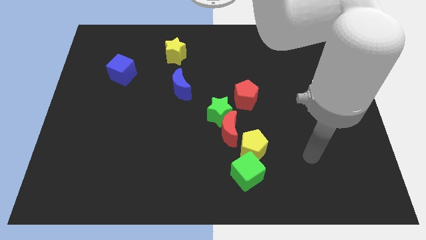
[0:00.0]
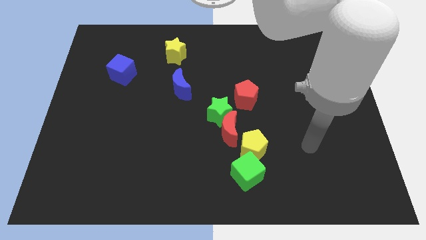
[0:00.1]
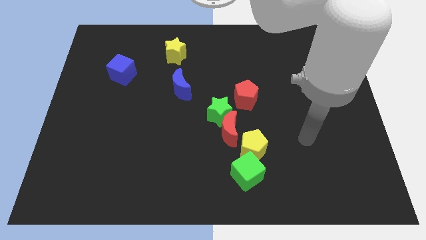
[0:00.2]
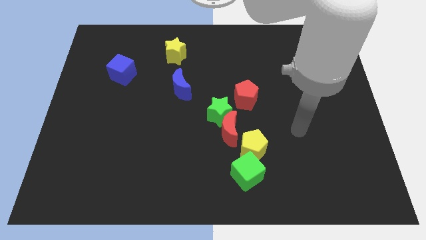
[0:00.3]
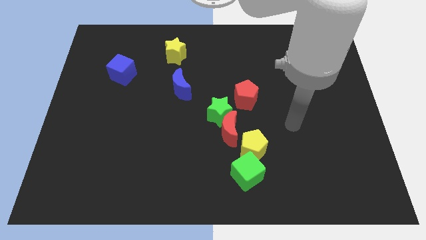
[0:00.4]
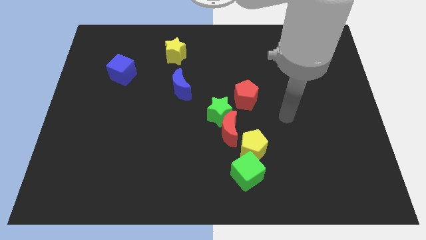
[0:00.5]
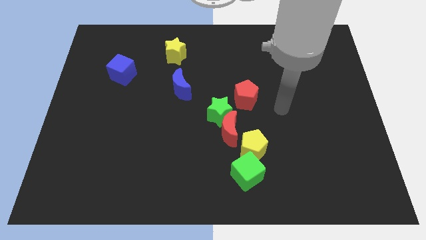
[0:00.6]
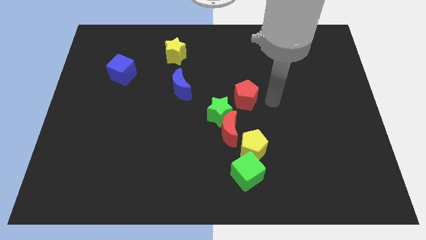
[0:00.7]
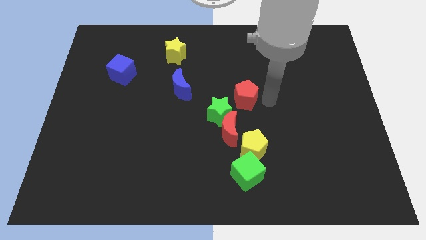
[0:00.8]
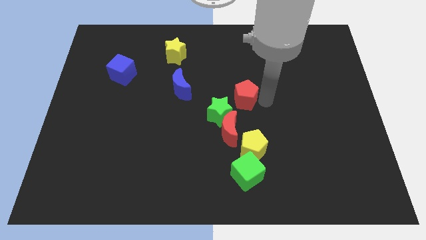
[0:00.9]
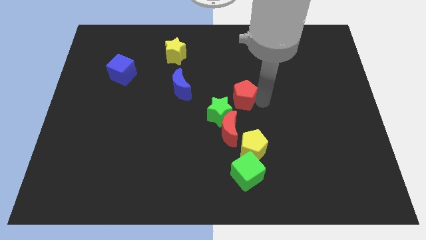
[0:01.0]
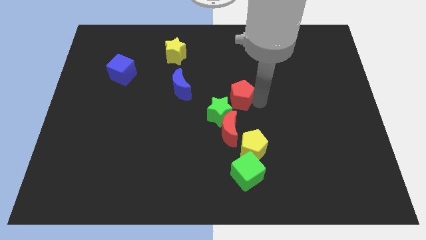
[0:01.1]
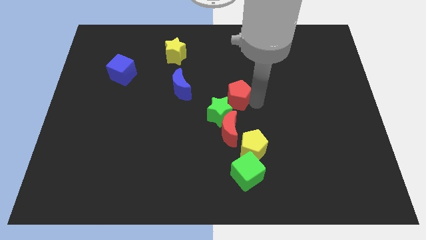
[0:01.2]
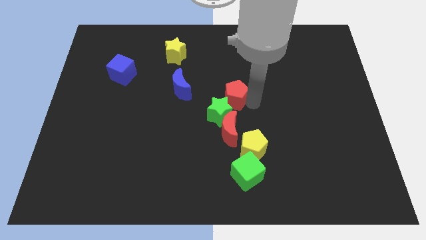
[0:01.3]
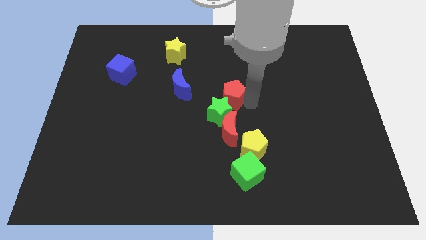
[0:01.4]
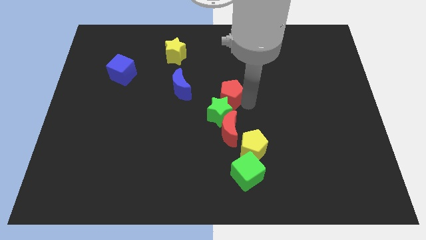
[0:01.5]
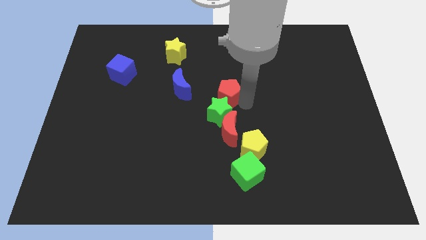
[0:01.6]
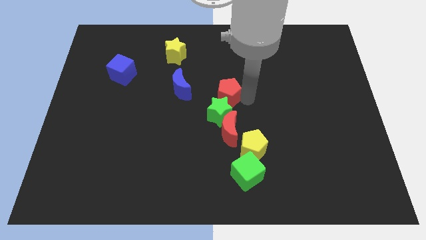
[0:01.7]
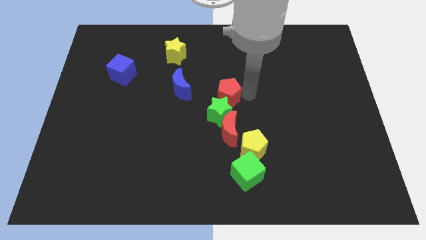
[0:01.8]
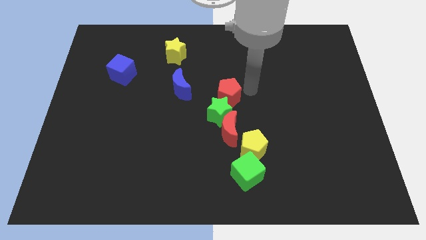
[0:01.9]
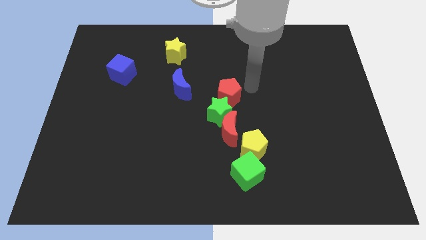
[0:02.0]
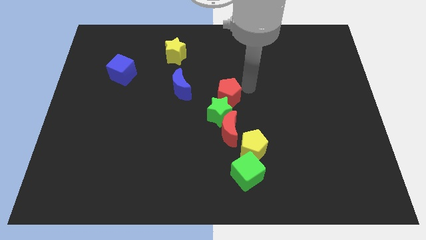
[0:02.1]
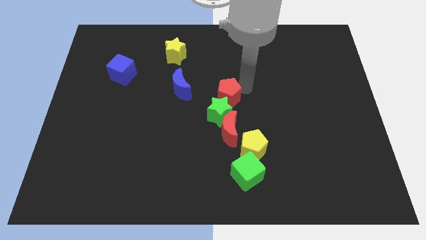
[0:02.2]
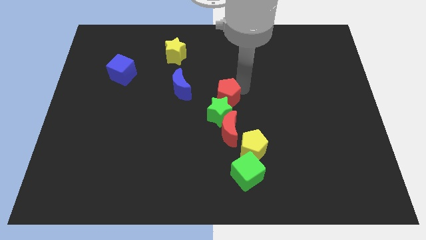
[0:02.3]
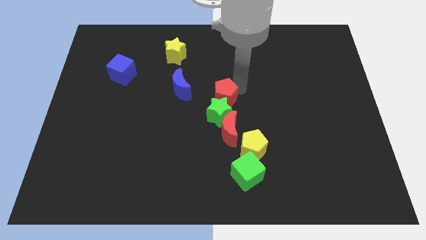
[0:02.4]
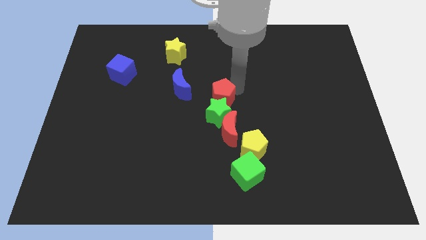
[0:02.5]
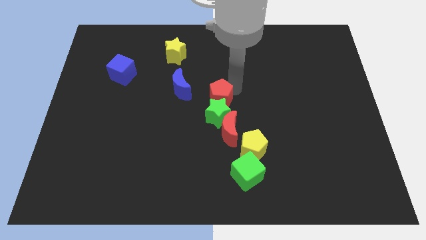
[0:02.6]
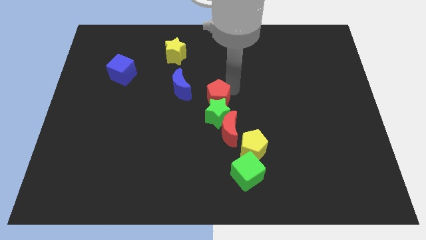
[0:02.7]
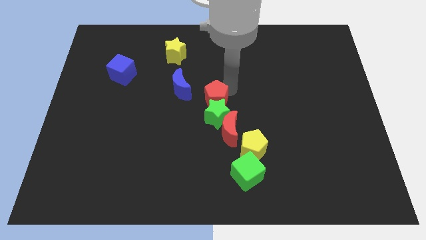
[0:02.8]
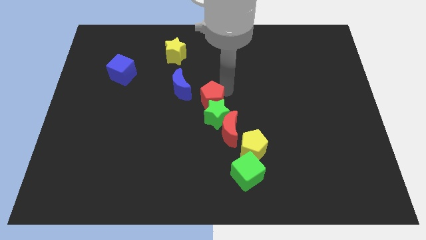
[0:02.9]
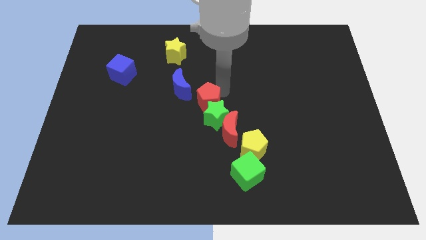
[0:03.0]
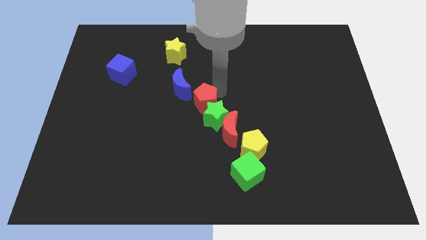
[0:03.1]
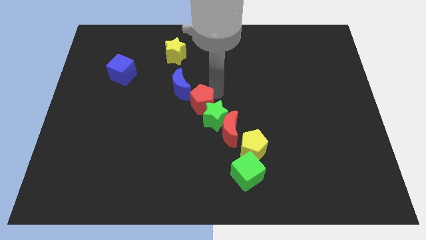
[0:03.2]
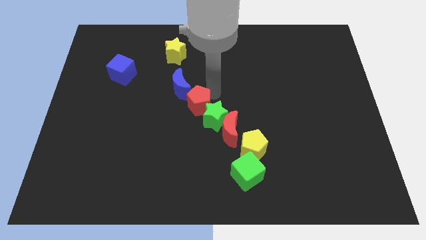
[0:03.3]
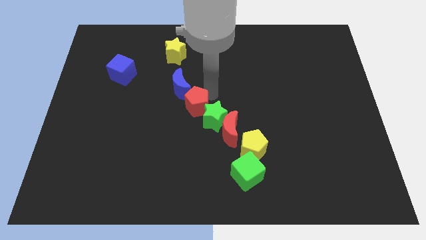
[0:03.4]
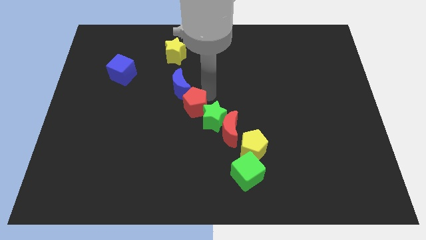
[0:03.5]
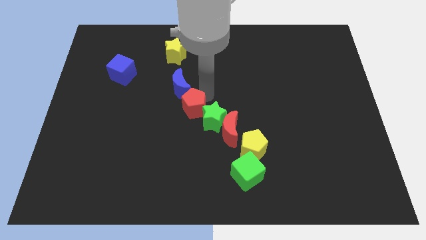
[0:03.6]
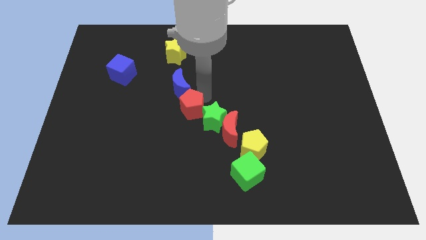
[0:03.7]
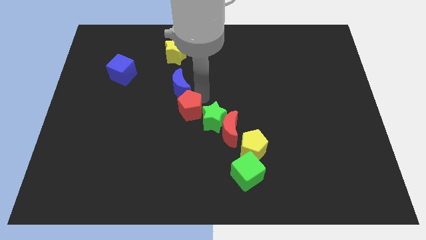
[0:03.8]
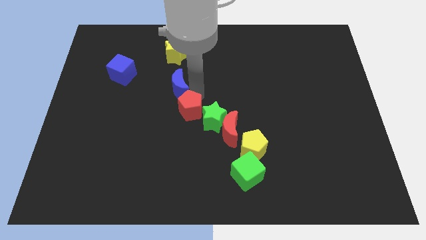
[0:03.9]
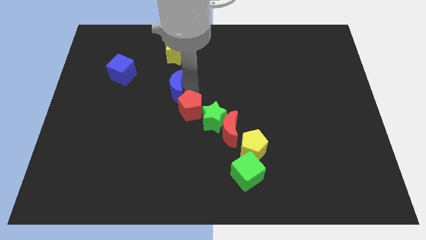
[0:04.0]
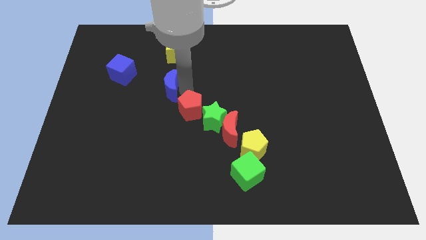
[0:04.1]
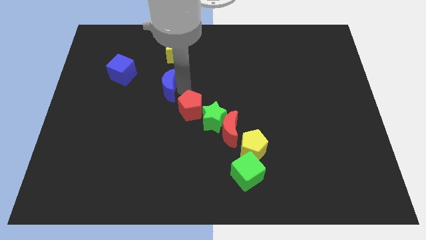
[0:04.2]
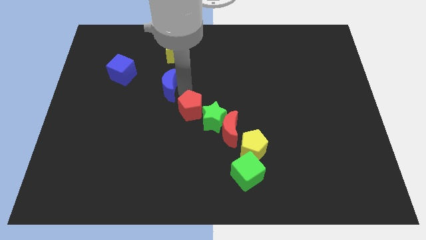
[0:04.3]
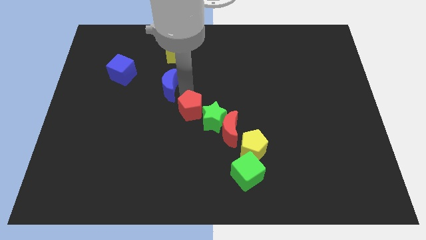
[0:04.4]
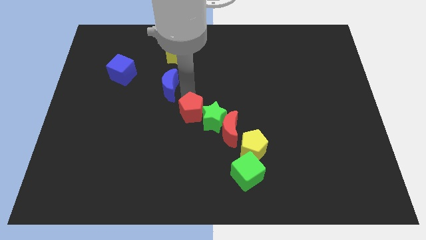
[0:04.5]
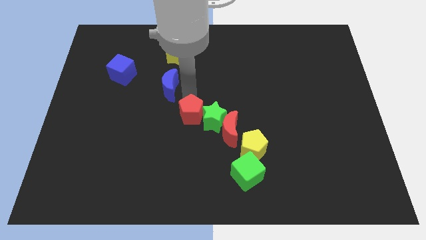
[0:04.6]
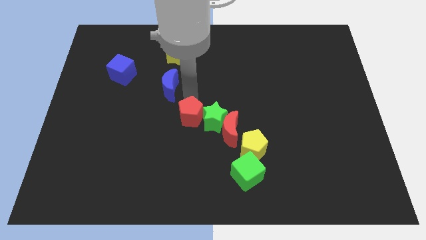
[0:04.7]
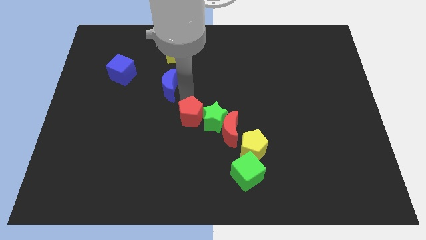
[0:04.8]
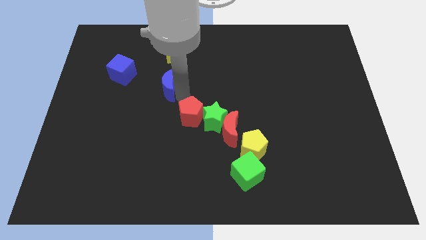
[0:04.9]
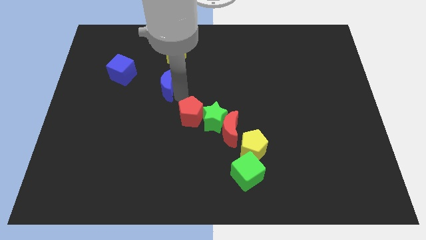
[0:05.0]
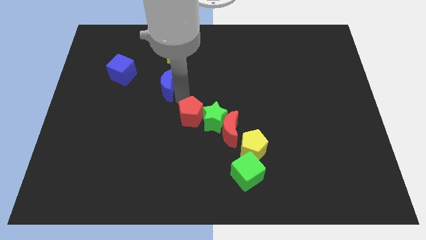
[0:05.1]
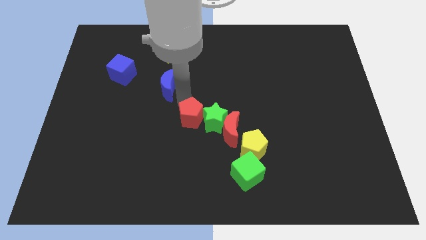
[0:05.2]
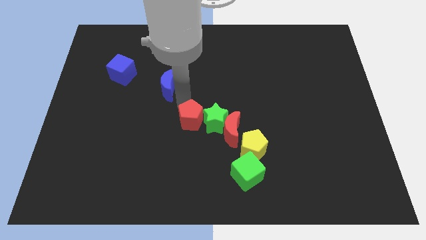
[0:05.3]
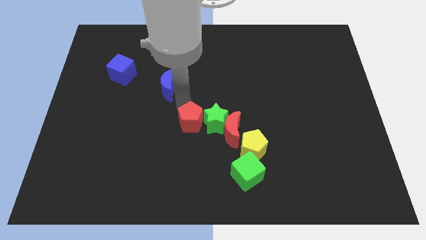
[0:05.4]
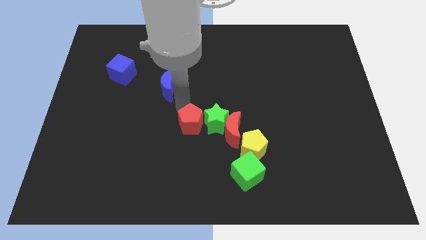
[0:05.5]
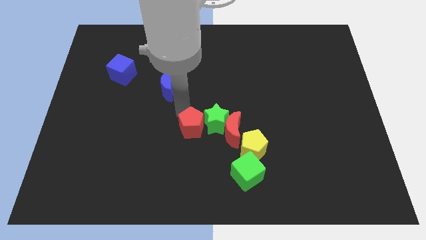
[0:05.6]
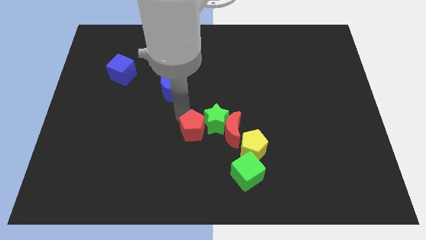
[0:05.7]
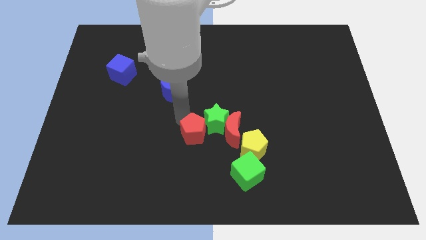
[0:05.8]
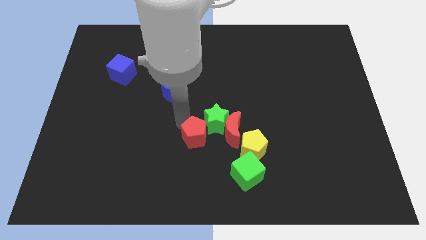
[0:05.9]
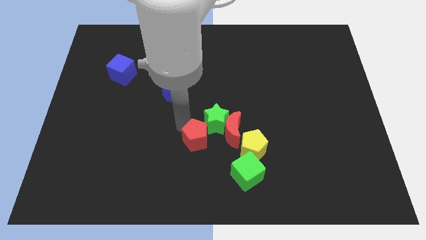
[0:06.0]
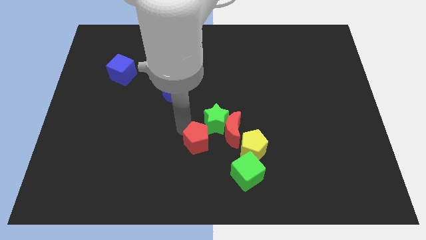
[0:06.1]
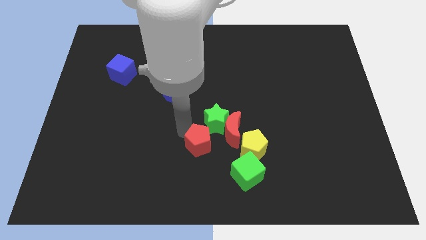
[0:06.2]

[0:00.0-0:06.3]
put the red pentagon to the top left of the green cube

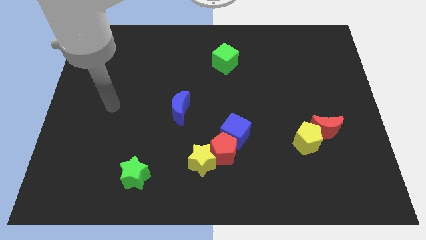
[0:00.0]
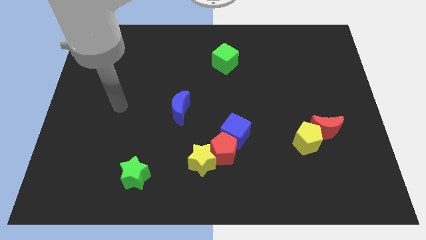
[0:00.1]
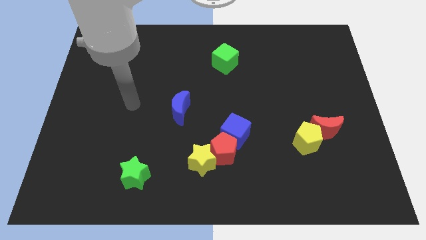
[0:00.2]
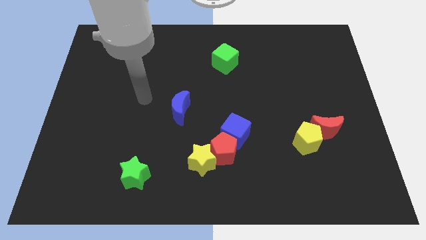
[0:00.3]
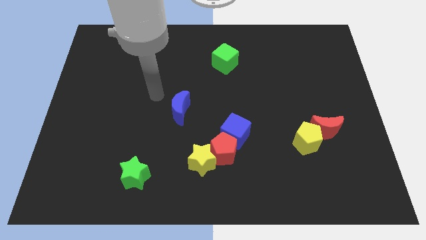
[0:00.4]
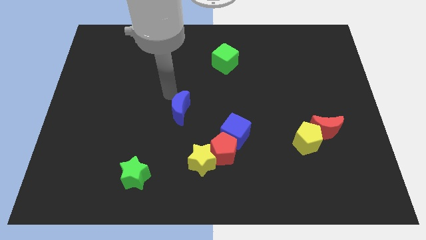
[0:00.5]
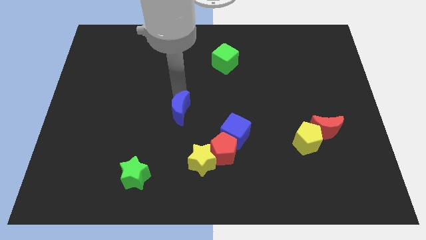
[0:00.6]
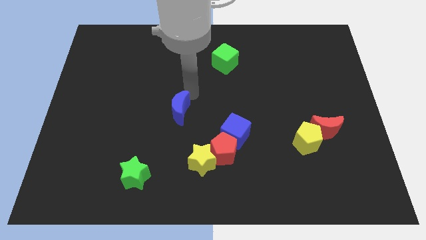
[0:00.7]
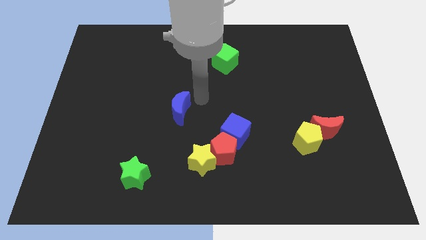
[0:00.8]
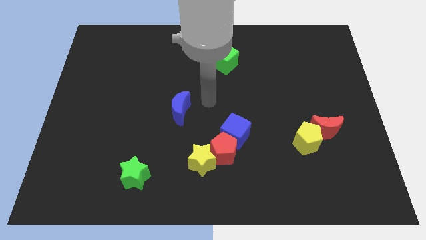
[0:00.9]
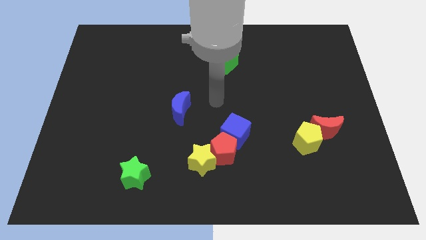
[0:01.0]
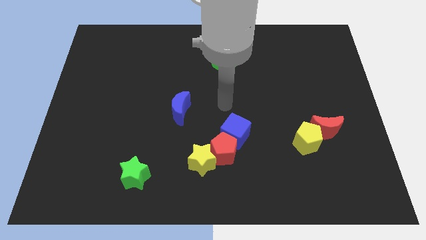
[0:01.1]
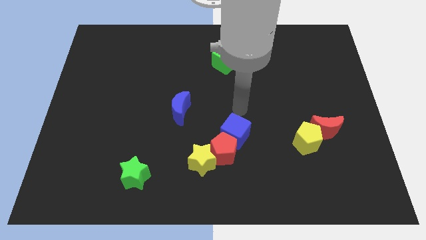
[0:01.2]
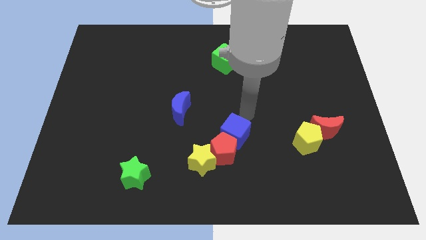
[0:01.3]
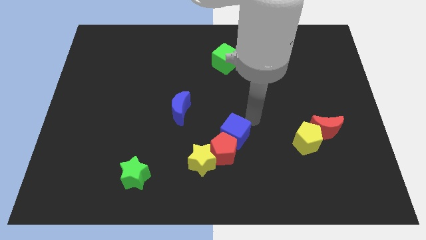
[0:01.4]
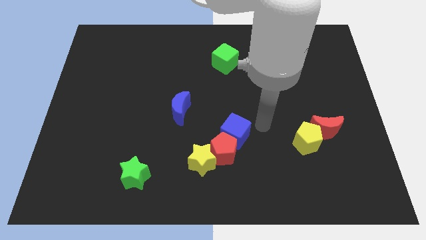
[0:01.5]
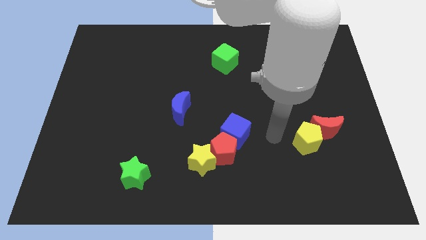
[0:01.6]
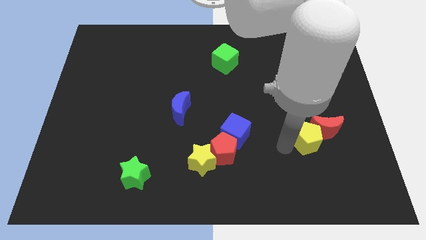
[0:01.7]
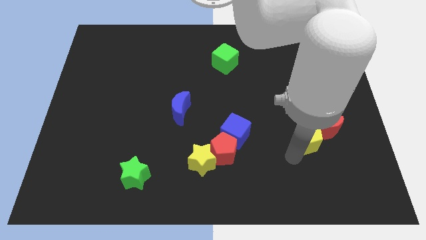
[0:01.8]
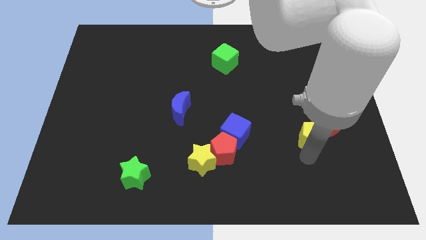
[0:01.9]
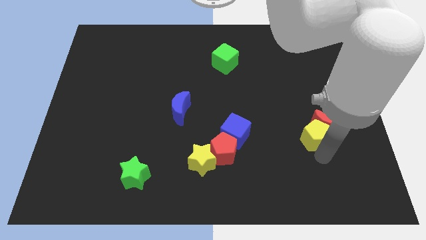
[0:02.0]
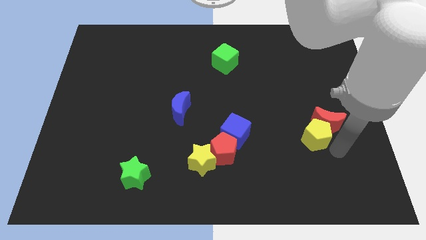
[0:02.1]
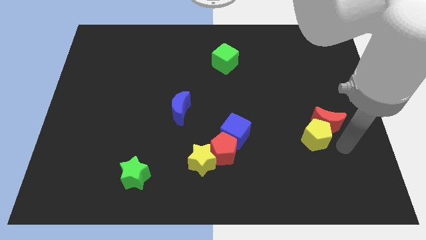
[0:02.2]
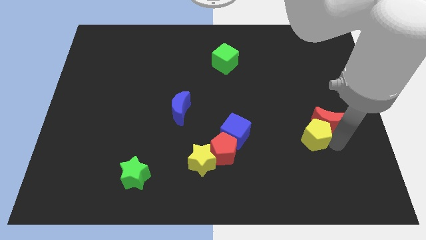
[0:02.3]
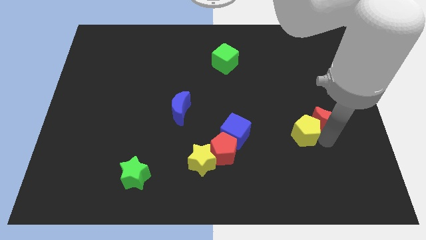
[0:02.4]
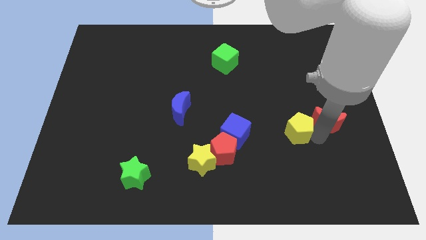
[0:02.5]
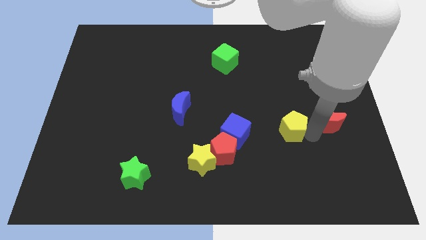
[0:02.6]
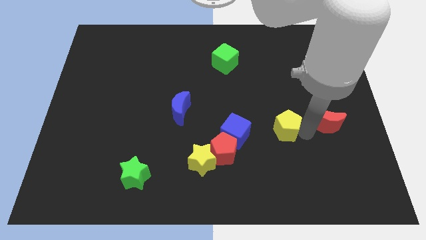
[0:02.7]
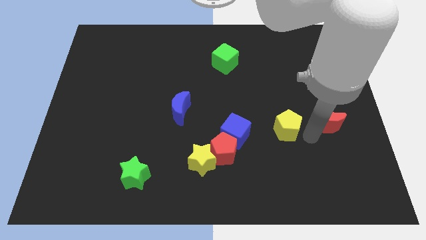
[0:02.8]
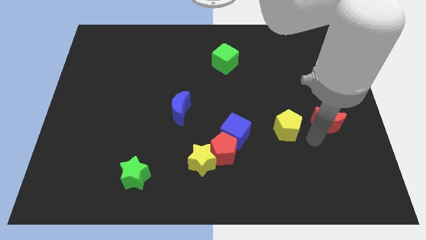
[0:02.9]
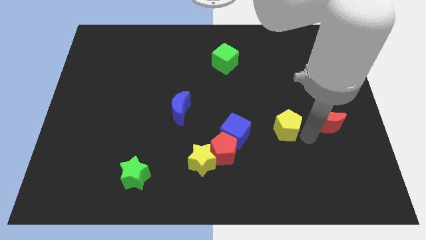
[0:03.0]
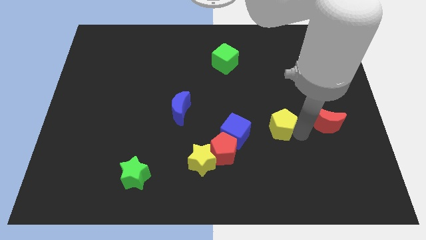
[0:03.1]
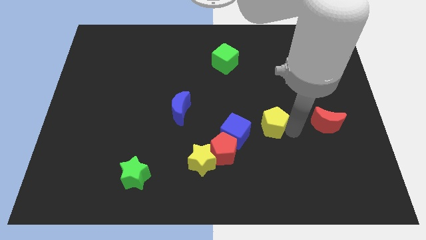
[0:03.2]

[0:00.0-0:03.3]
move the yellow pentagon to the top right side of the blue cube
